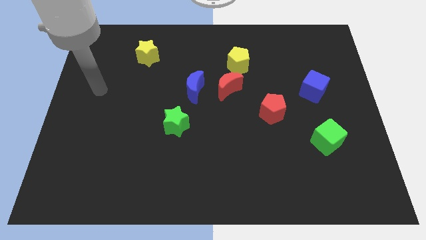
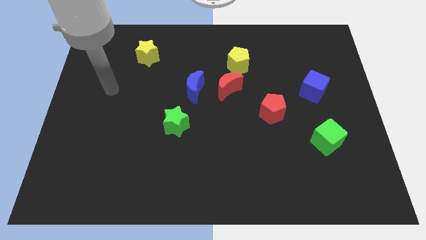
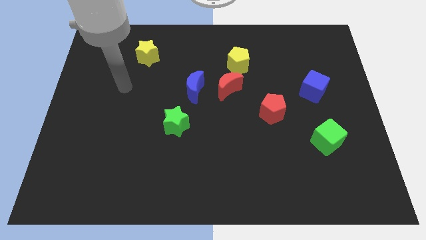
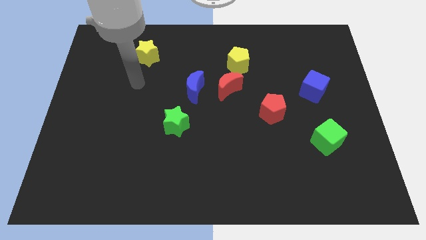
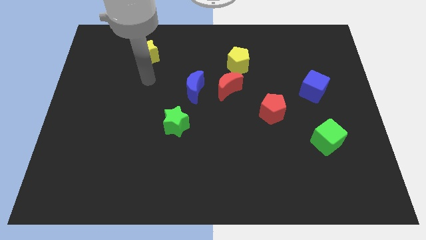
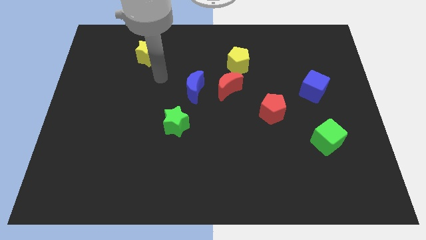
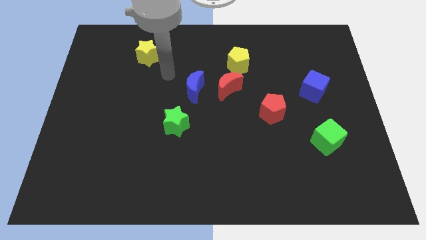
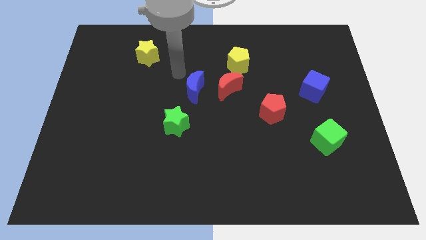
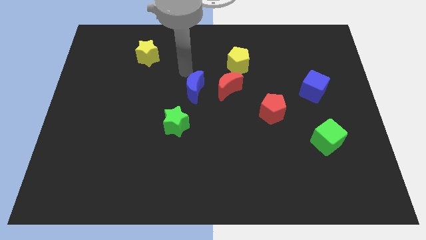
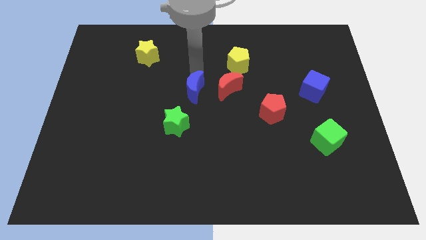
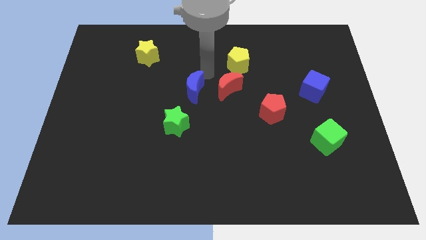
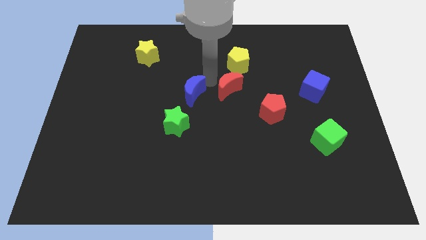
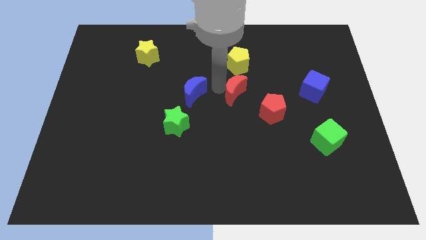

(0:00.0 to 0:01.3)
move the blue moon away from the red moon

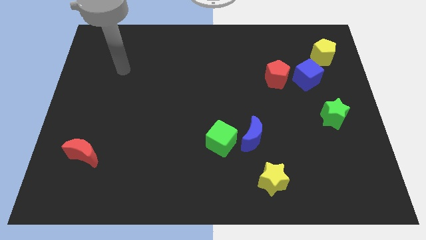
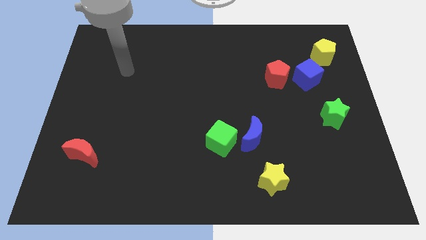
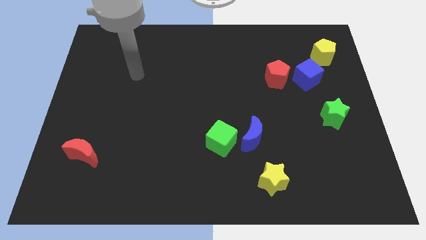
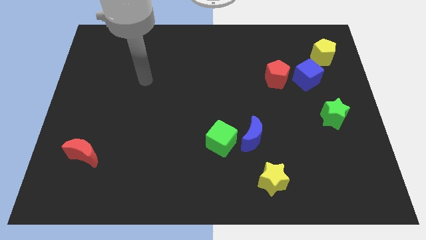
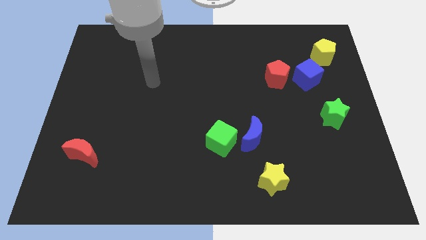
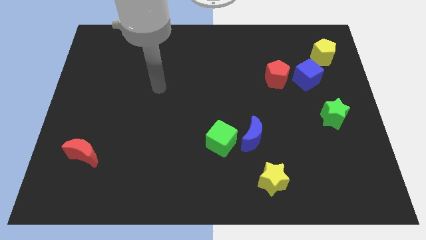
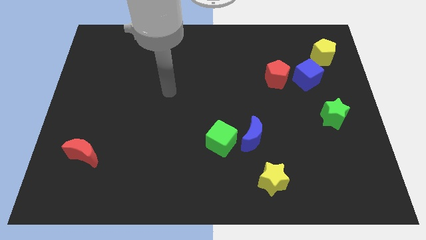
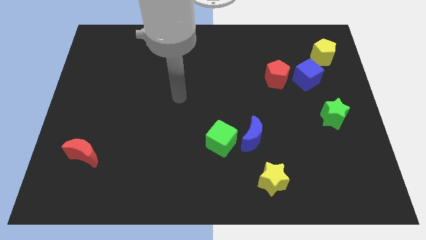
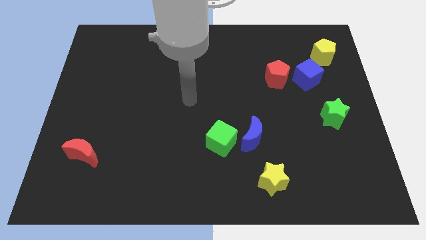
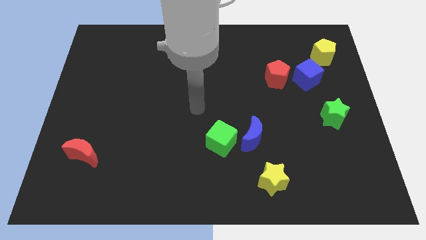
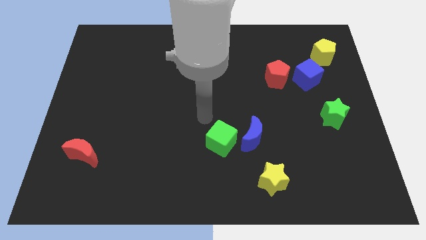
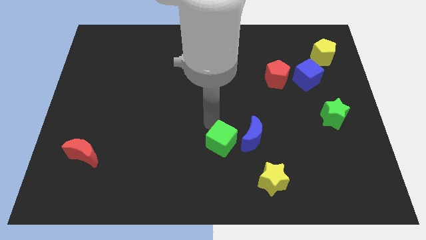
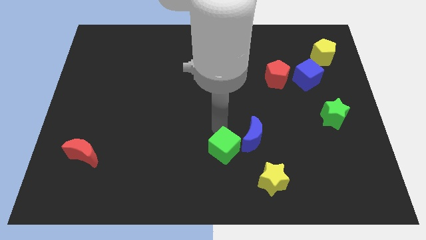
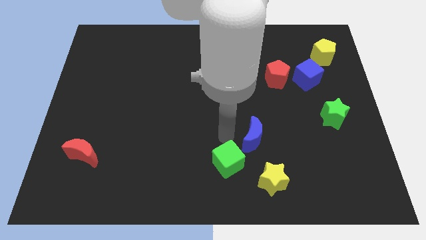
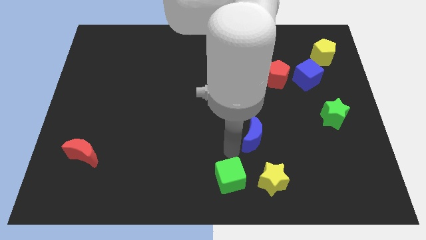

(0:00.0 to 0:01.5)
separate the blue moon from the green cube

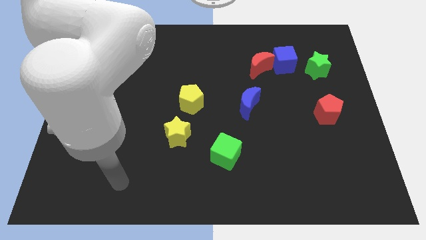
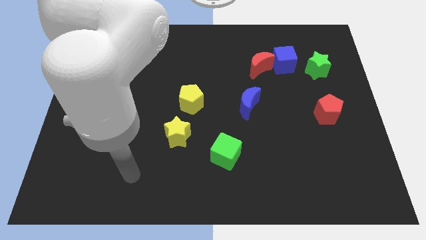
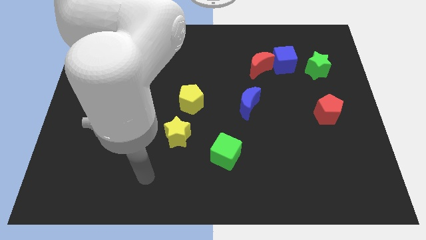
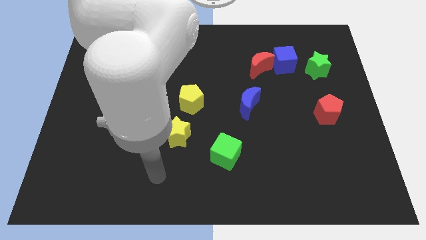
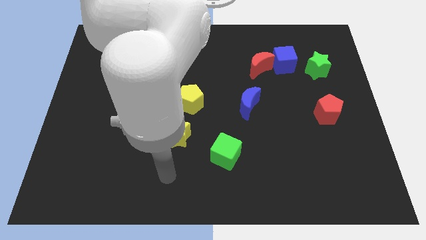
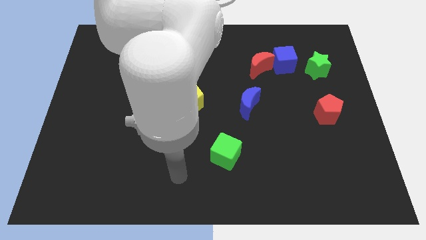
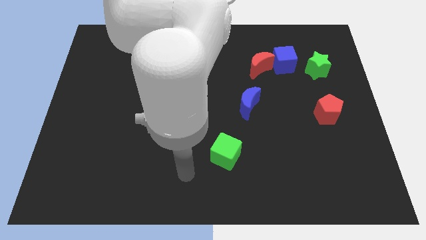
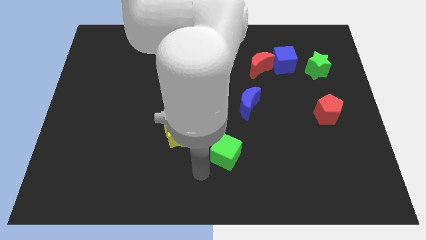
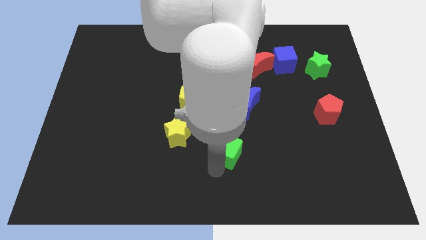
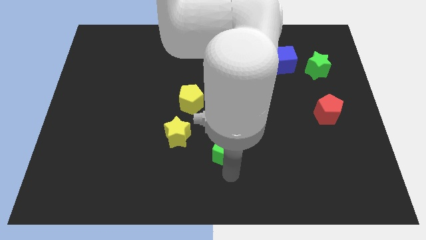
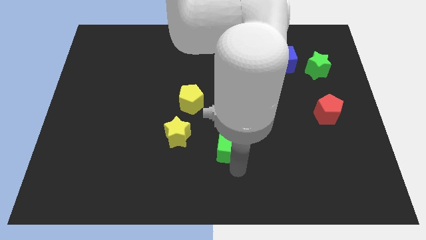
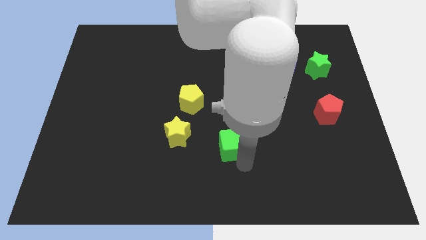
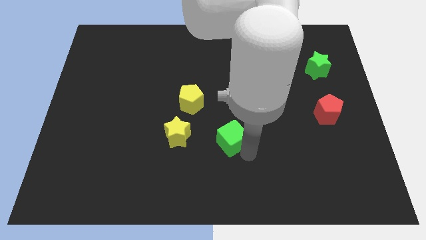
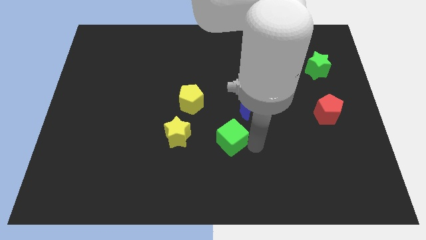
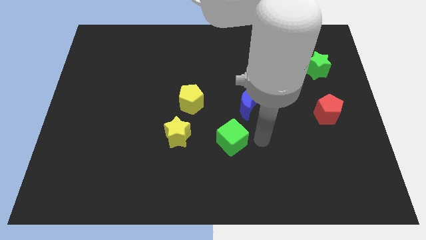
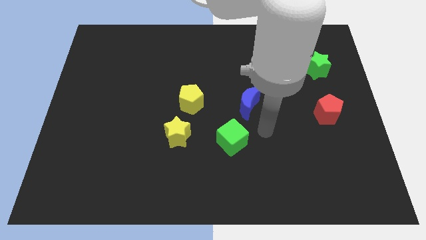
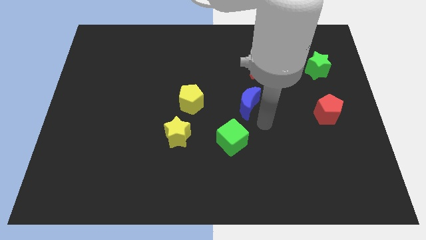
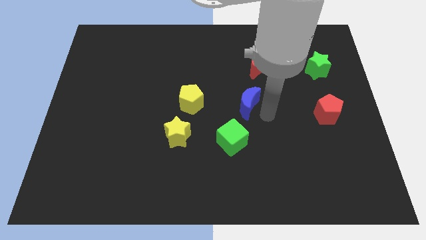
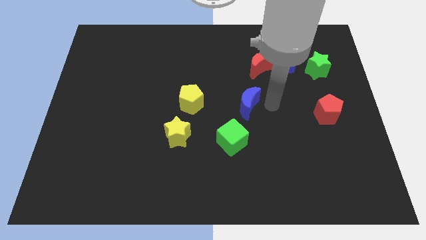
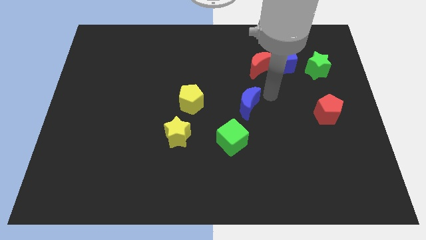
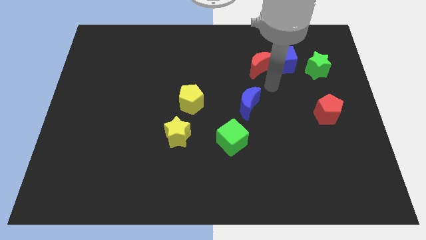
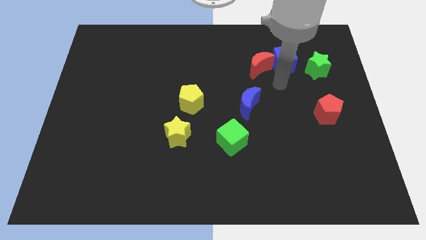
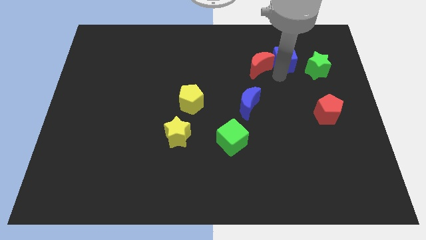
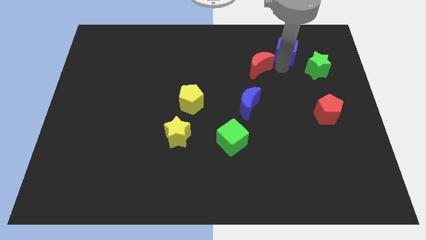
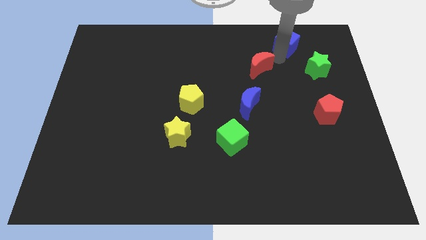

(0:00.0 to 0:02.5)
separate the red moon from the blue cube

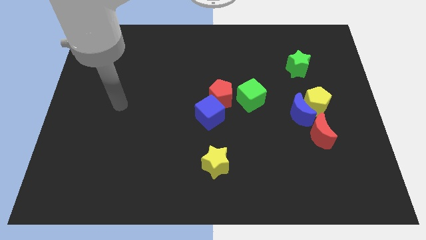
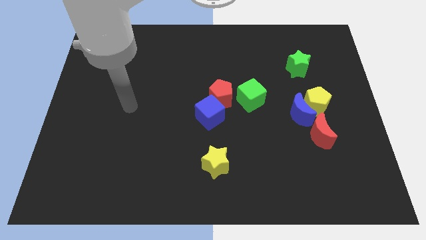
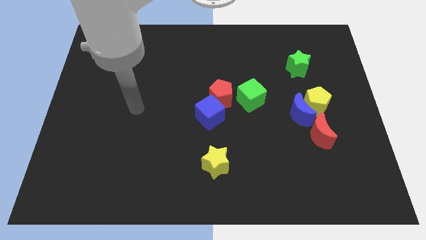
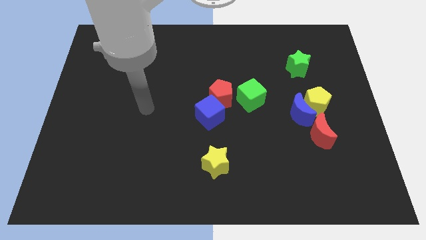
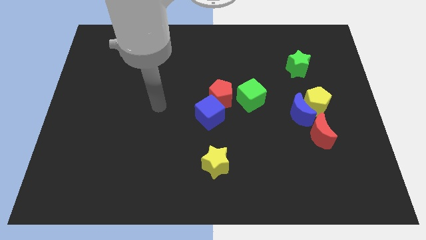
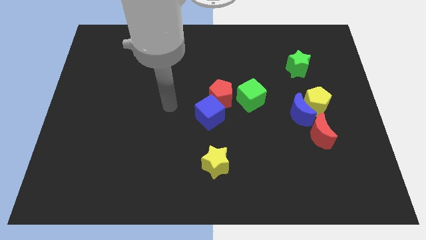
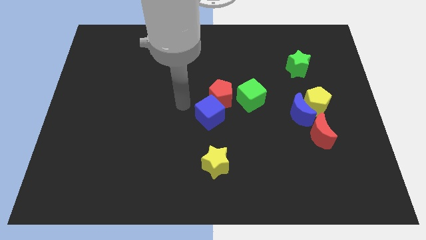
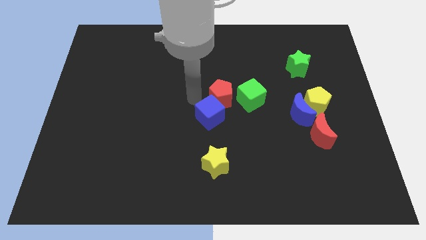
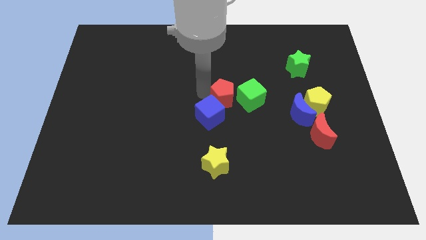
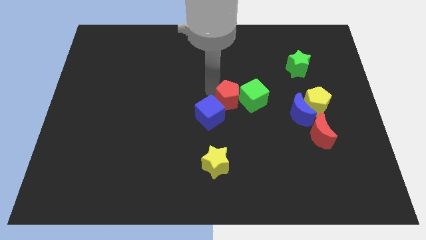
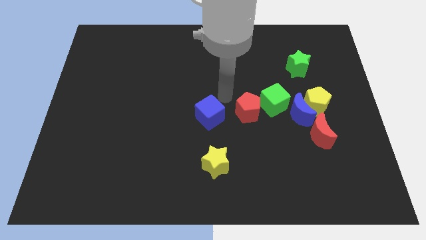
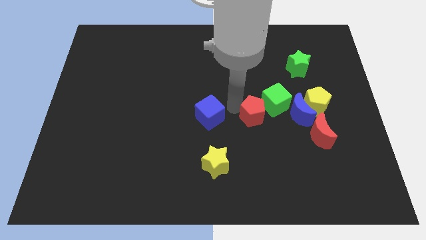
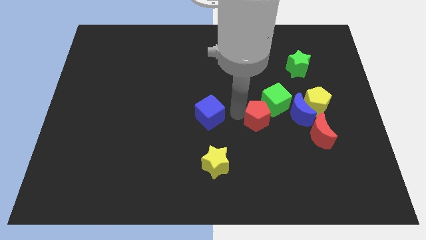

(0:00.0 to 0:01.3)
pull the blue cube apart from the red pentagon

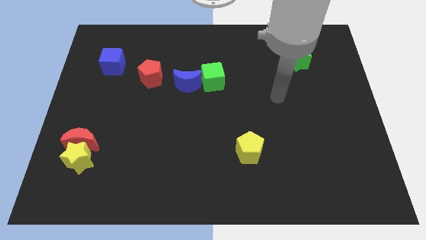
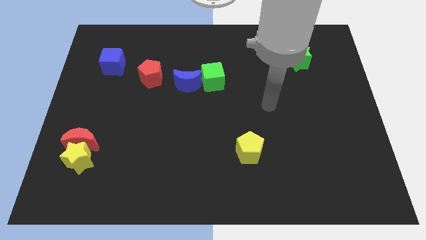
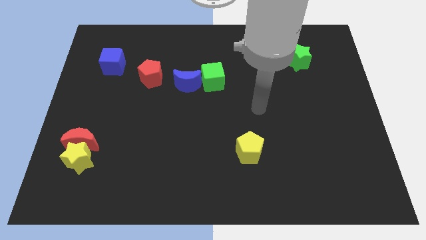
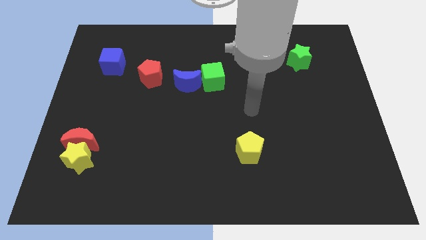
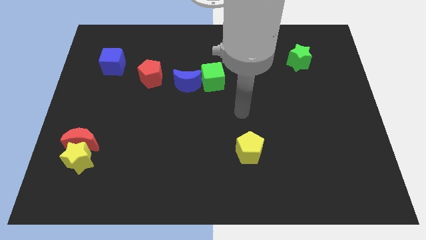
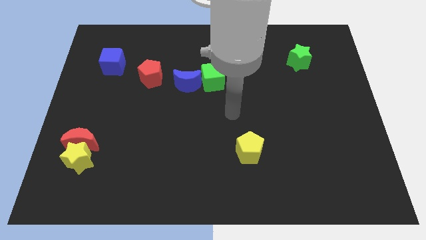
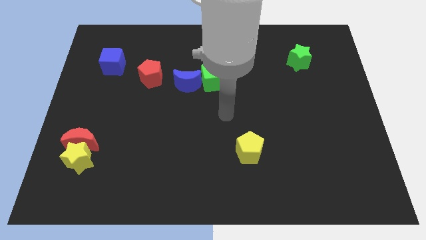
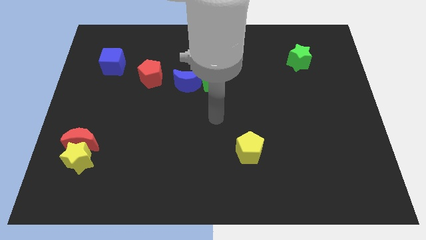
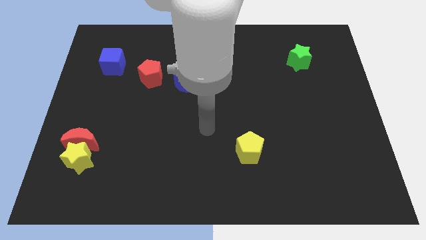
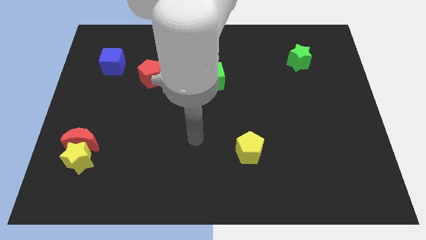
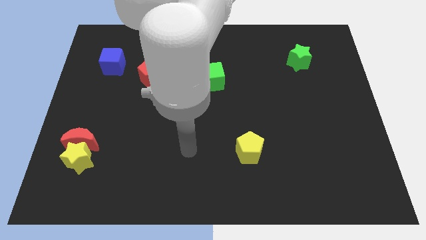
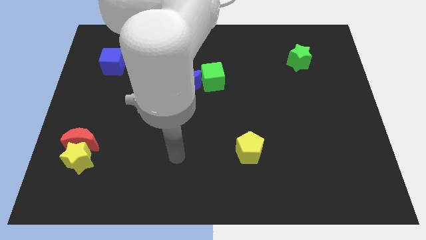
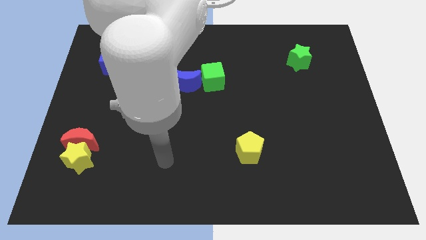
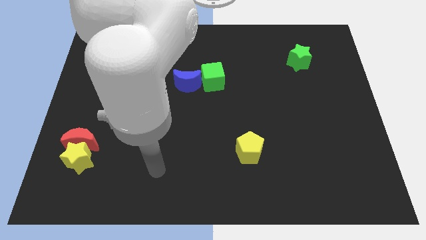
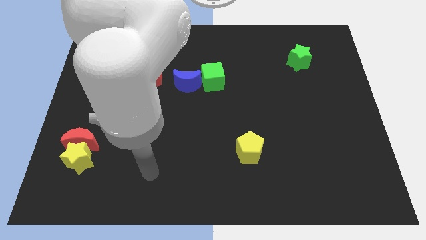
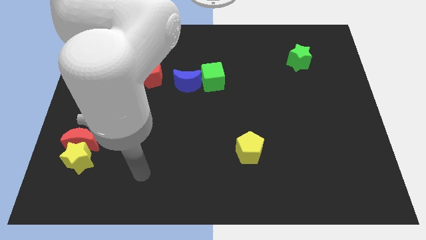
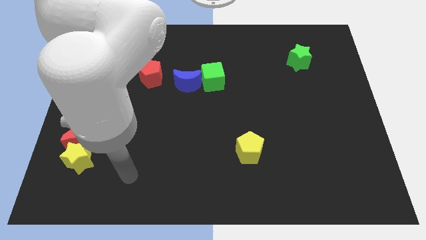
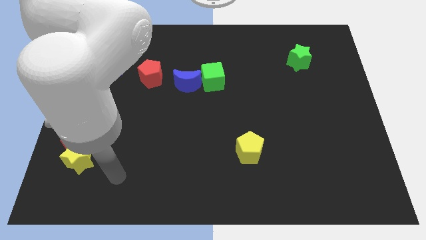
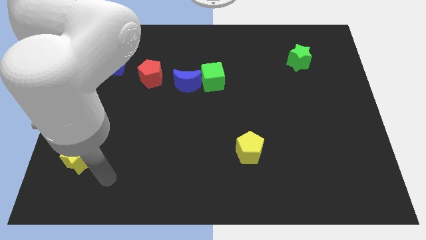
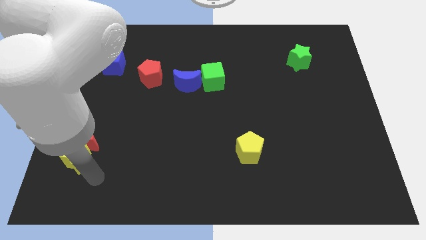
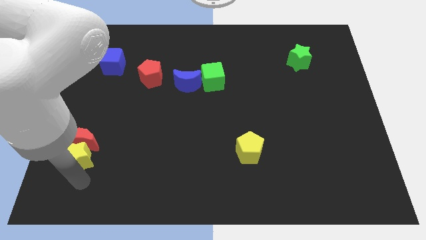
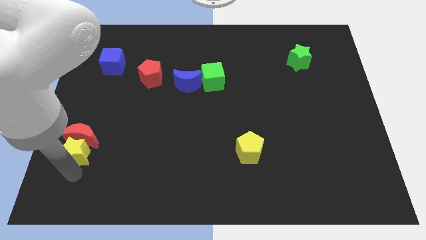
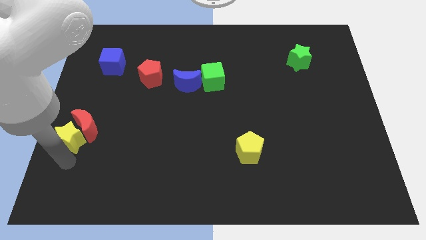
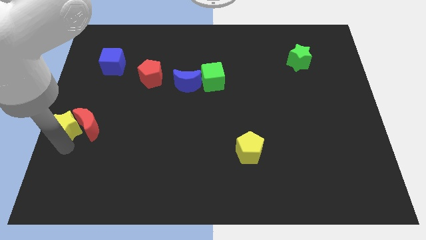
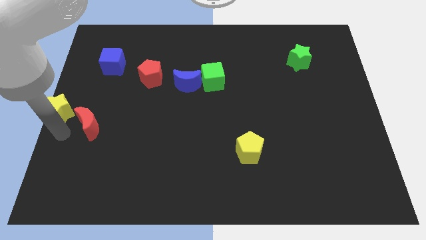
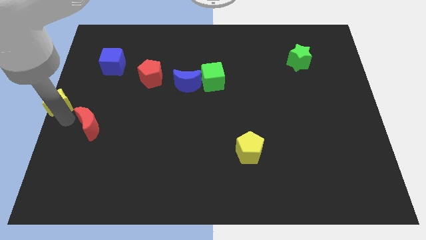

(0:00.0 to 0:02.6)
separate the red moon from the yellow star

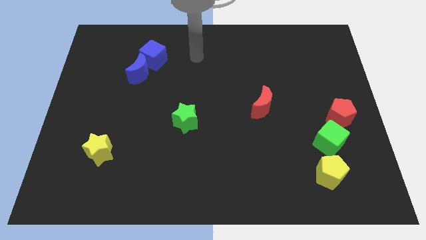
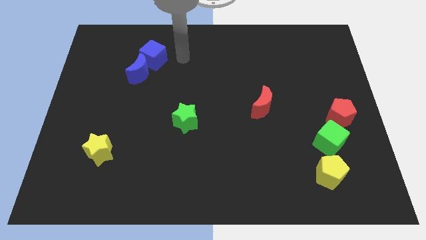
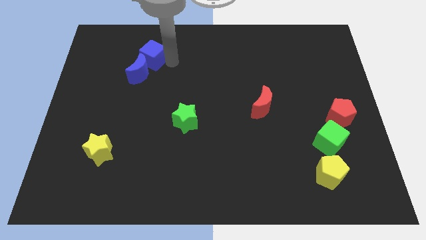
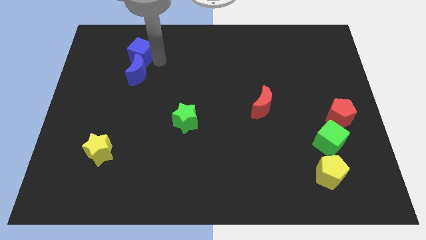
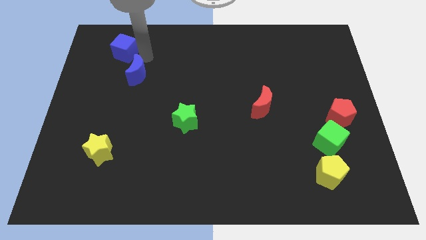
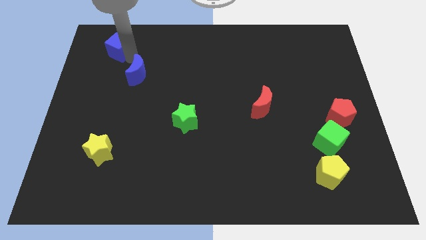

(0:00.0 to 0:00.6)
move the blue moon away from the blue cube
